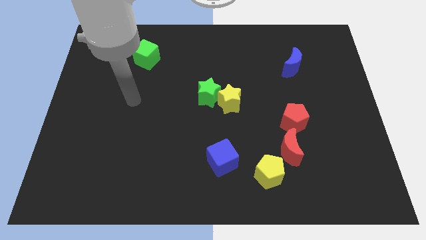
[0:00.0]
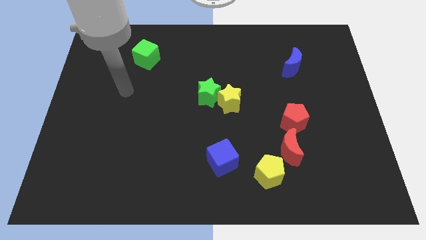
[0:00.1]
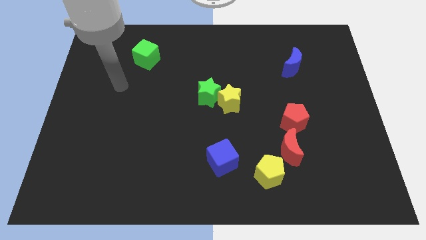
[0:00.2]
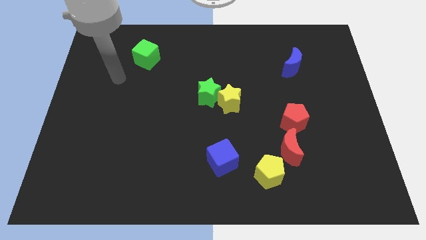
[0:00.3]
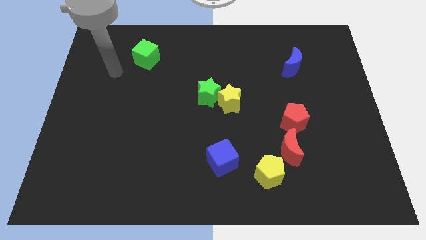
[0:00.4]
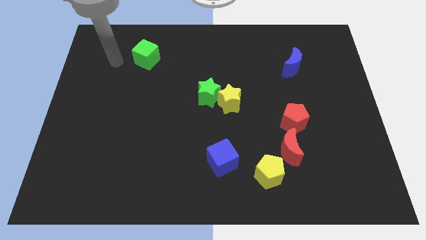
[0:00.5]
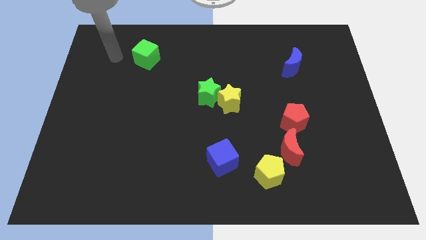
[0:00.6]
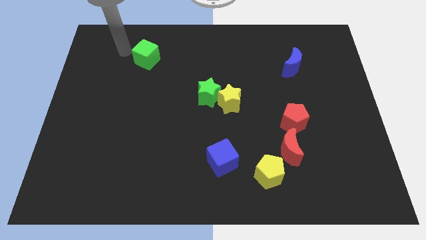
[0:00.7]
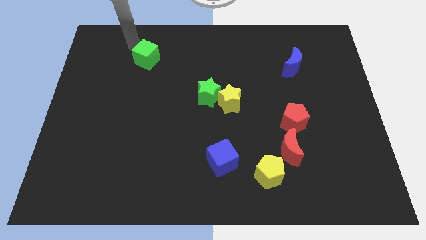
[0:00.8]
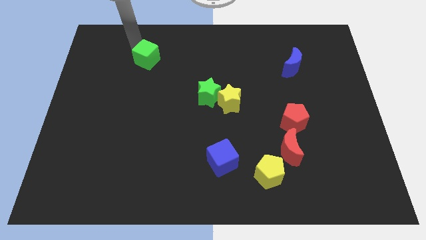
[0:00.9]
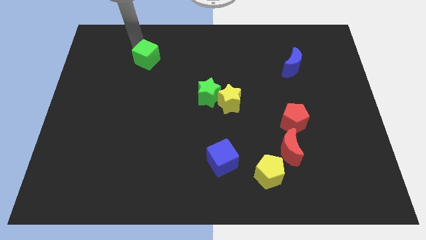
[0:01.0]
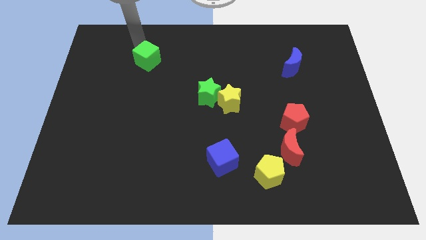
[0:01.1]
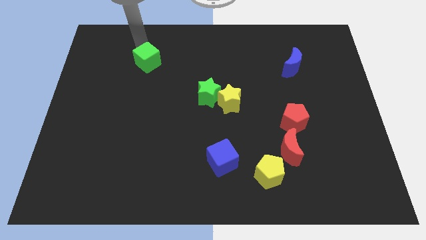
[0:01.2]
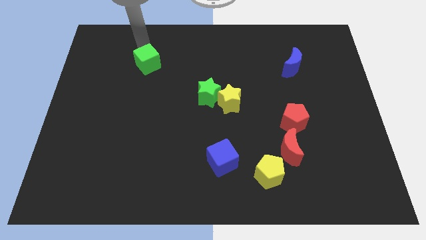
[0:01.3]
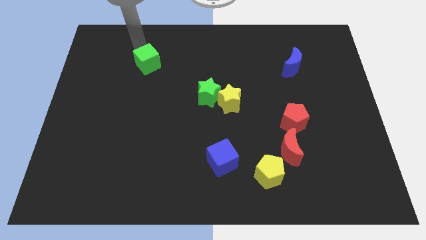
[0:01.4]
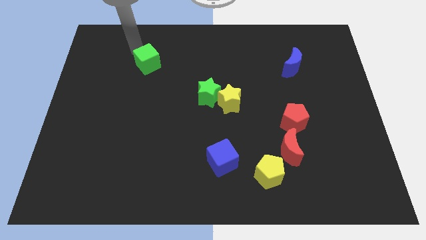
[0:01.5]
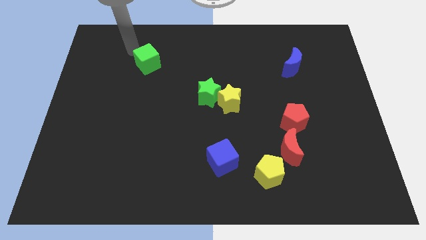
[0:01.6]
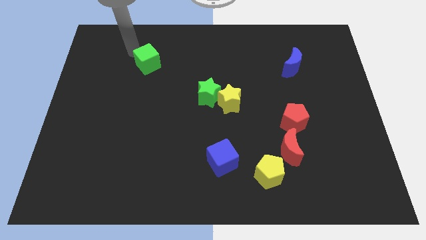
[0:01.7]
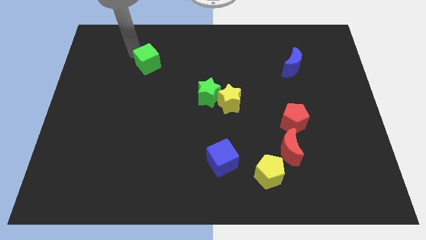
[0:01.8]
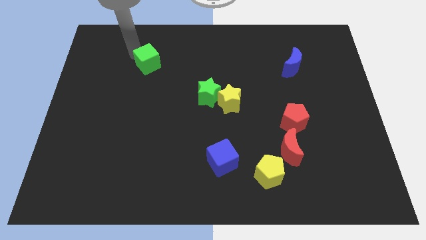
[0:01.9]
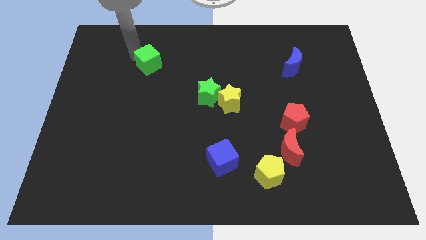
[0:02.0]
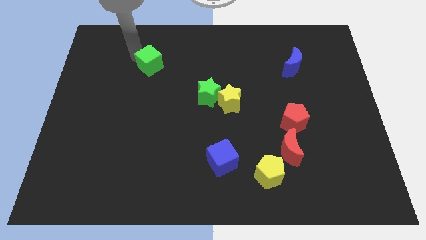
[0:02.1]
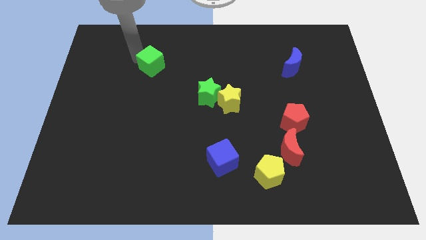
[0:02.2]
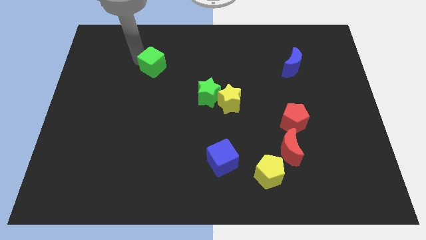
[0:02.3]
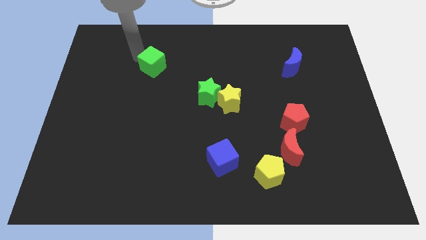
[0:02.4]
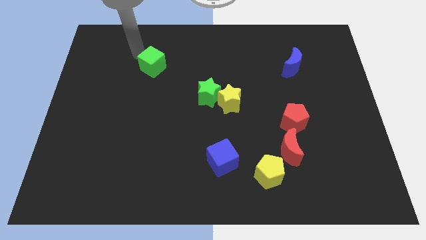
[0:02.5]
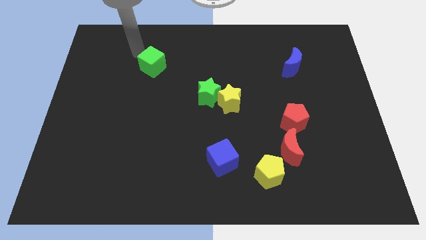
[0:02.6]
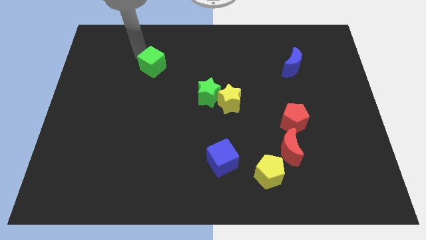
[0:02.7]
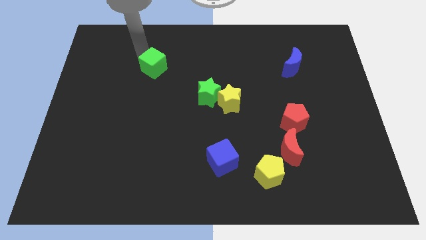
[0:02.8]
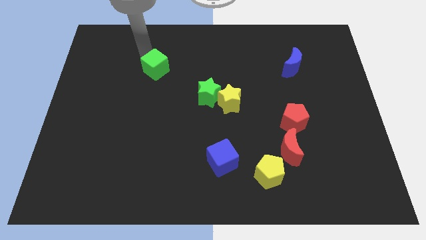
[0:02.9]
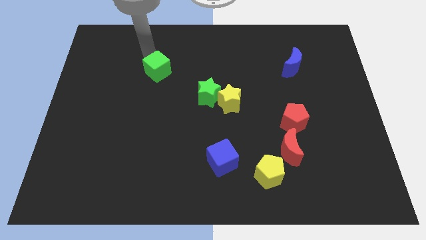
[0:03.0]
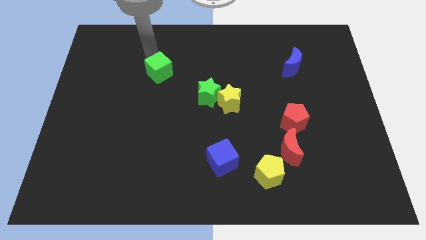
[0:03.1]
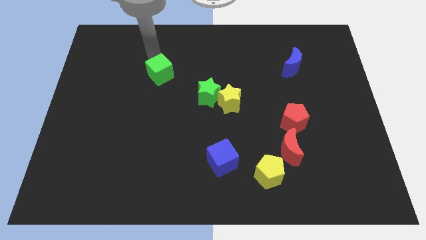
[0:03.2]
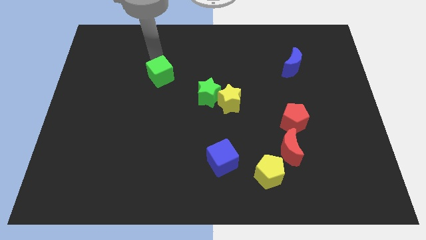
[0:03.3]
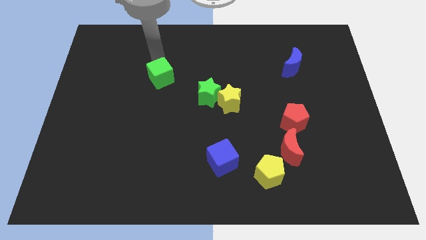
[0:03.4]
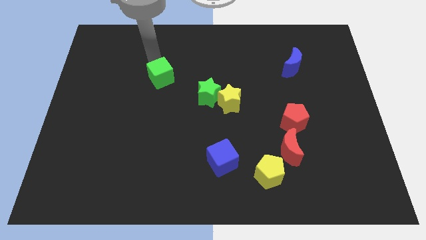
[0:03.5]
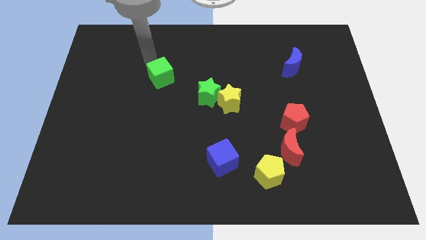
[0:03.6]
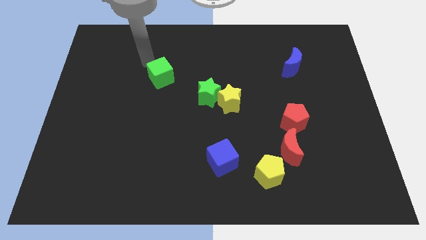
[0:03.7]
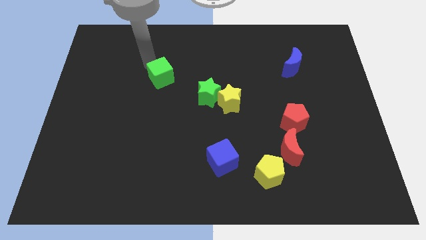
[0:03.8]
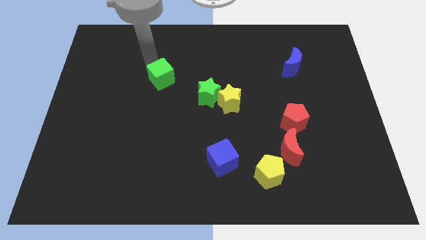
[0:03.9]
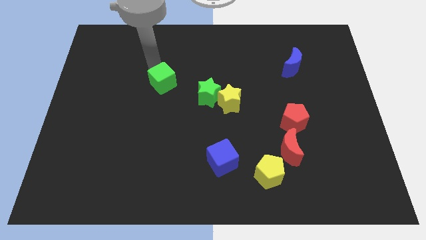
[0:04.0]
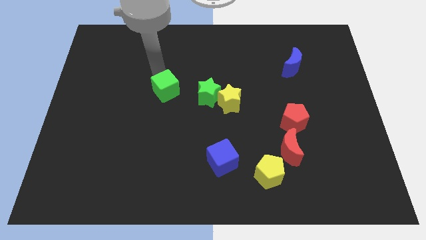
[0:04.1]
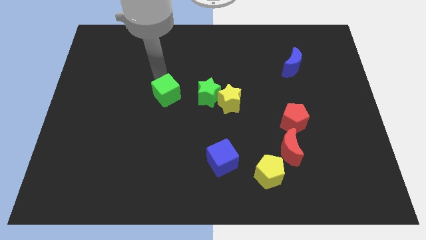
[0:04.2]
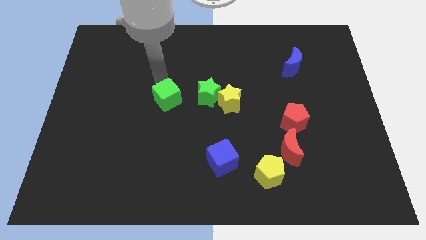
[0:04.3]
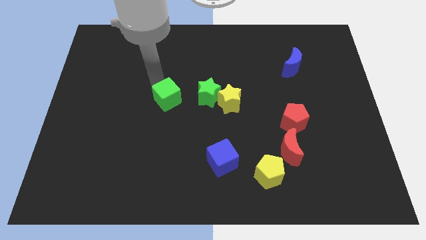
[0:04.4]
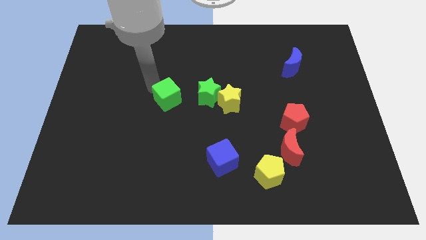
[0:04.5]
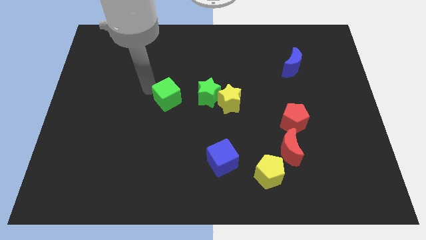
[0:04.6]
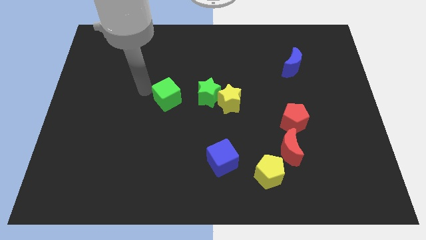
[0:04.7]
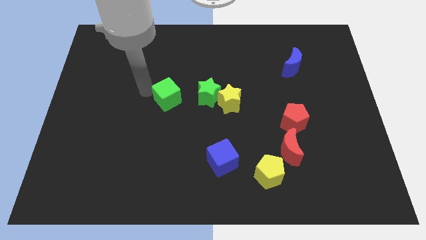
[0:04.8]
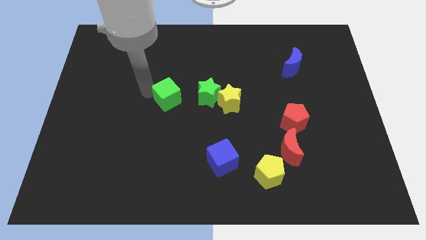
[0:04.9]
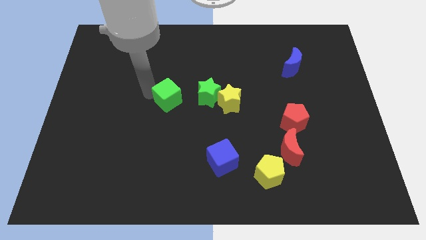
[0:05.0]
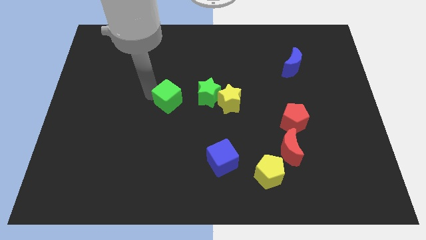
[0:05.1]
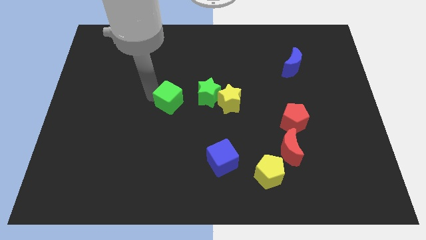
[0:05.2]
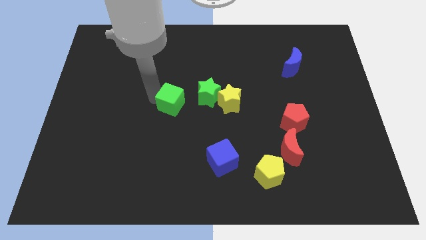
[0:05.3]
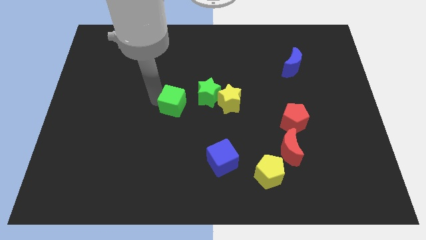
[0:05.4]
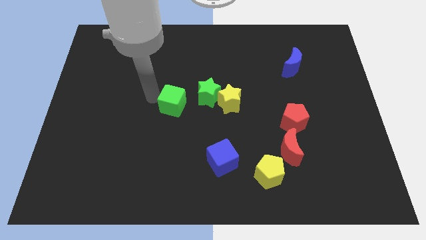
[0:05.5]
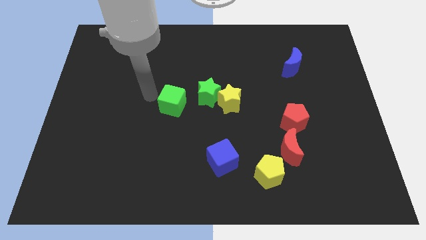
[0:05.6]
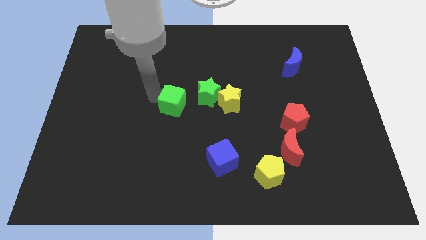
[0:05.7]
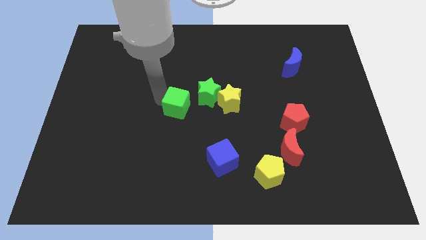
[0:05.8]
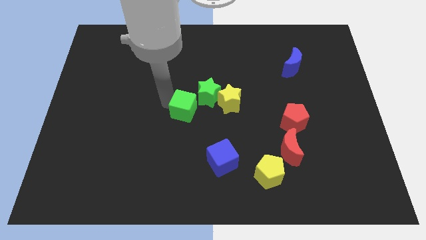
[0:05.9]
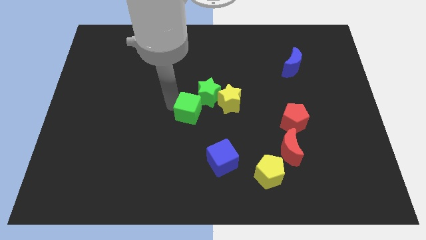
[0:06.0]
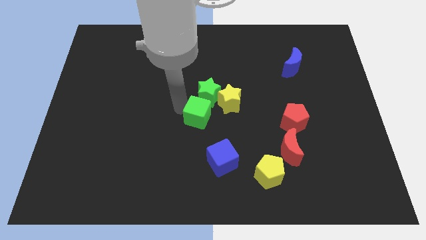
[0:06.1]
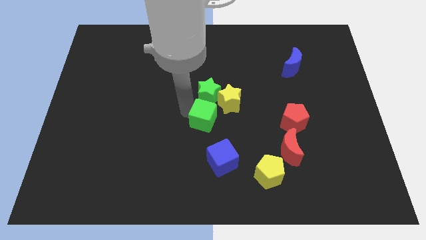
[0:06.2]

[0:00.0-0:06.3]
push the green cube to the top of the blue cube
